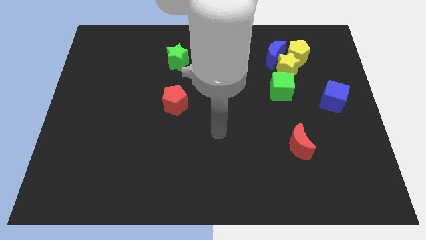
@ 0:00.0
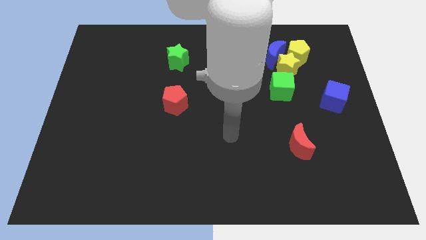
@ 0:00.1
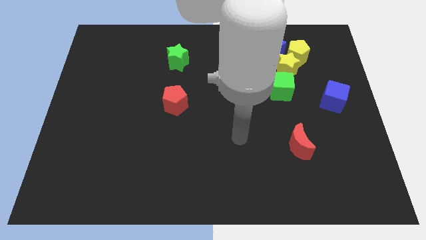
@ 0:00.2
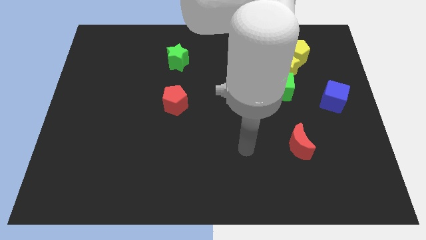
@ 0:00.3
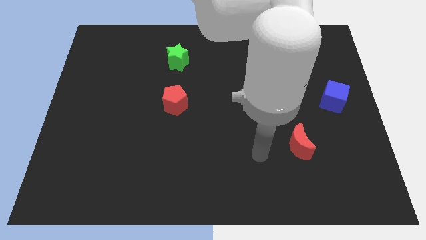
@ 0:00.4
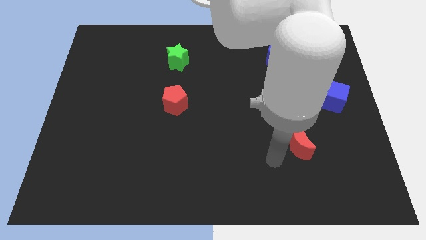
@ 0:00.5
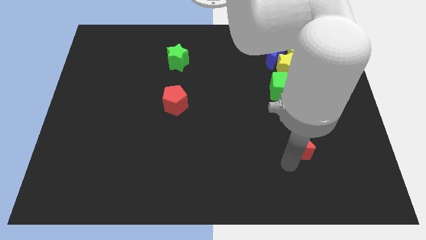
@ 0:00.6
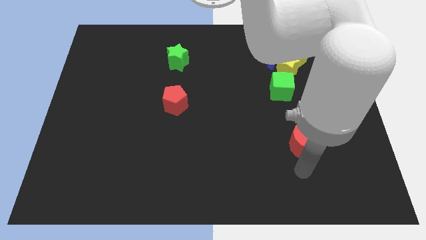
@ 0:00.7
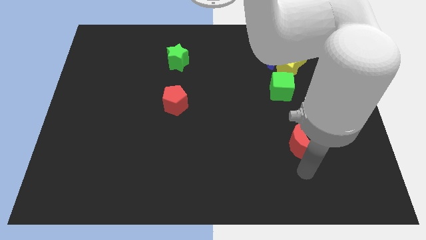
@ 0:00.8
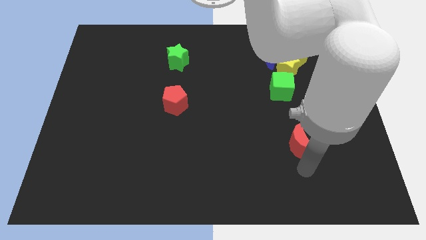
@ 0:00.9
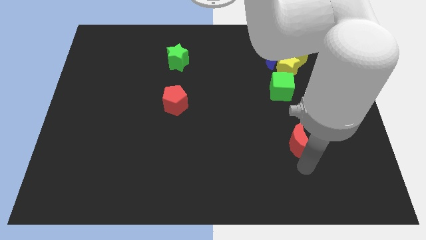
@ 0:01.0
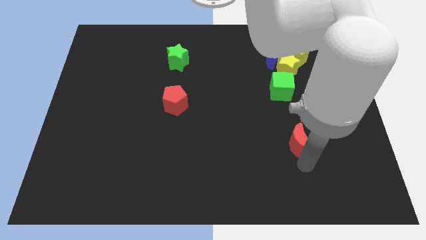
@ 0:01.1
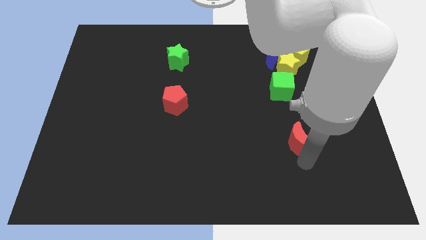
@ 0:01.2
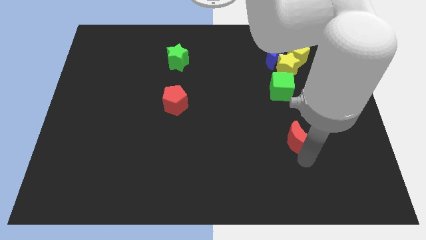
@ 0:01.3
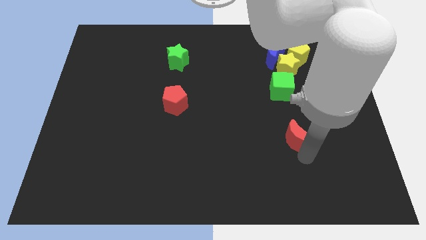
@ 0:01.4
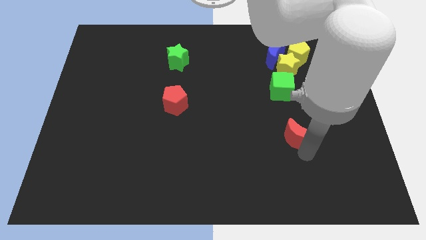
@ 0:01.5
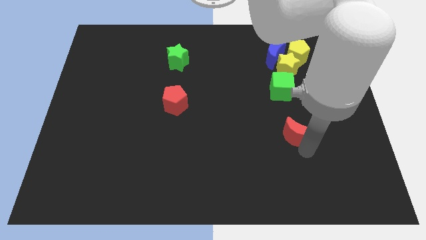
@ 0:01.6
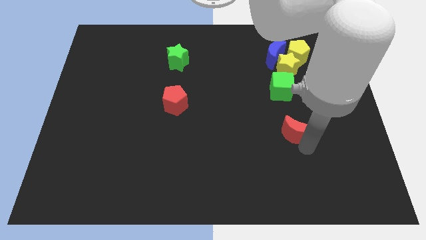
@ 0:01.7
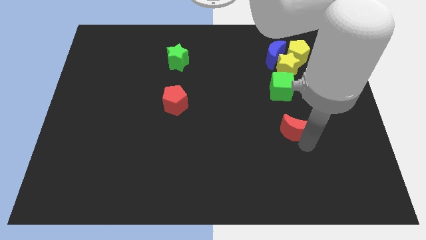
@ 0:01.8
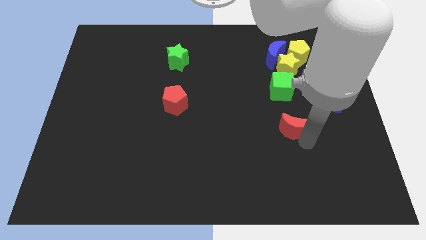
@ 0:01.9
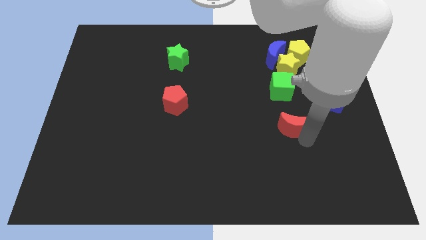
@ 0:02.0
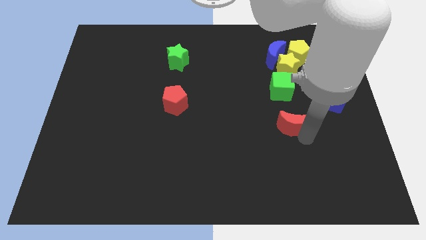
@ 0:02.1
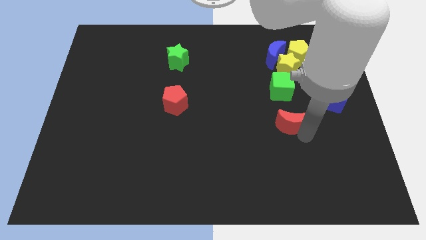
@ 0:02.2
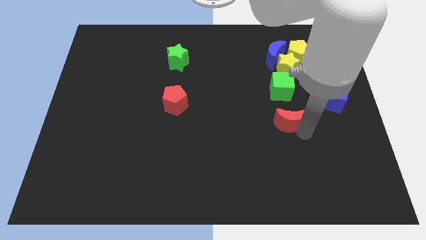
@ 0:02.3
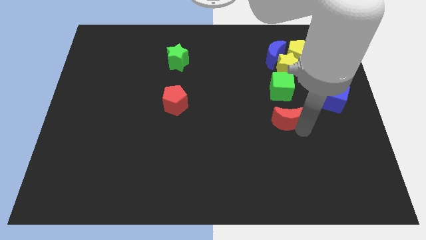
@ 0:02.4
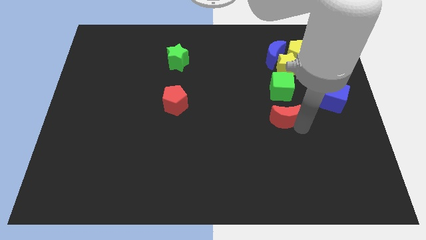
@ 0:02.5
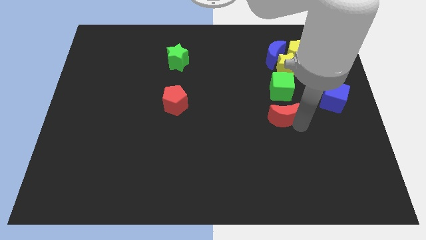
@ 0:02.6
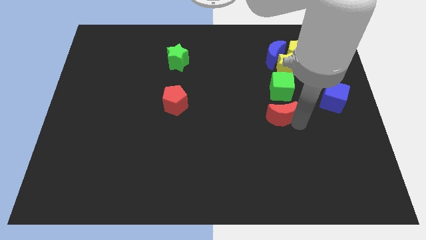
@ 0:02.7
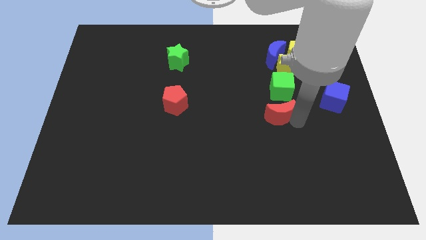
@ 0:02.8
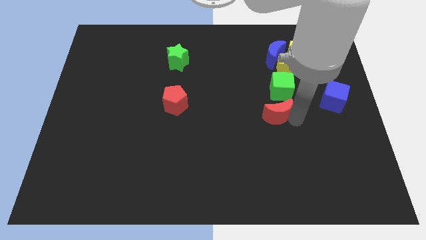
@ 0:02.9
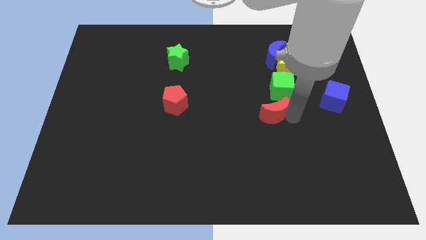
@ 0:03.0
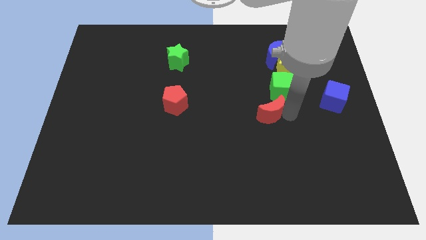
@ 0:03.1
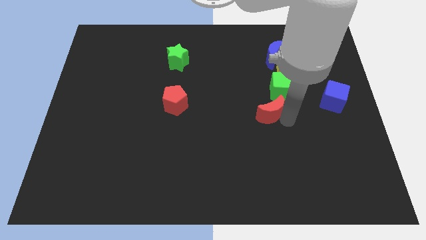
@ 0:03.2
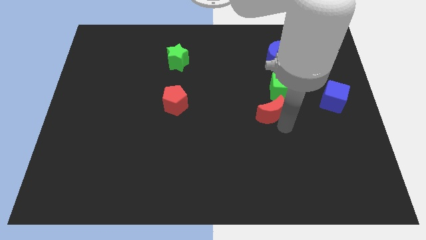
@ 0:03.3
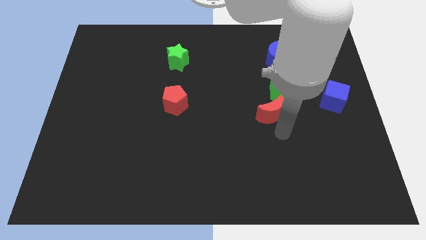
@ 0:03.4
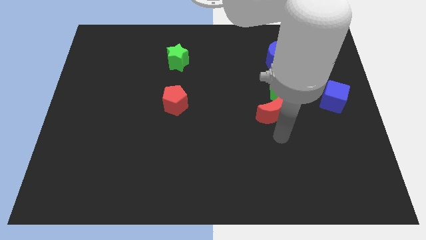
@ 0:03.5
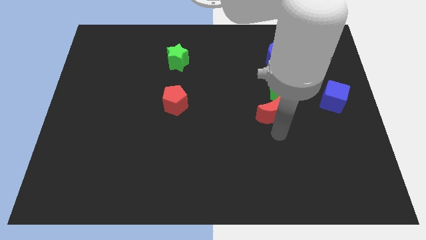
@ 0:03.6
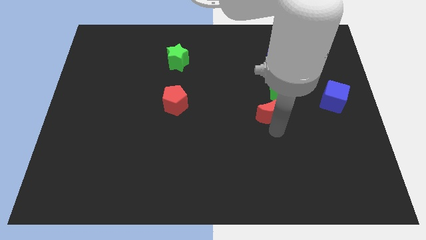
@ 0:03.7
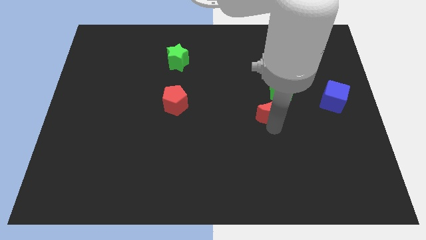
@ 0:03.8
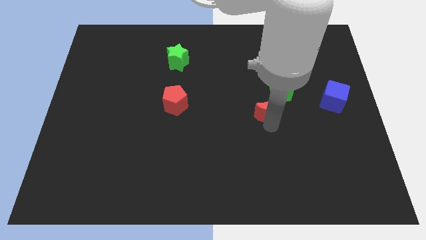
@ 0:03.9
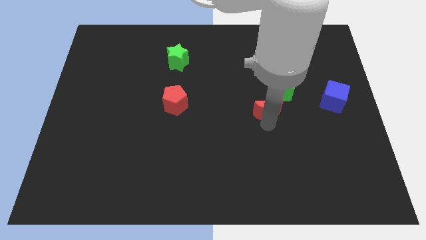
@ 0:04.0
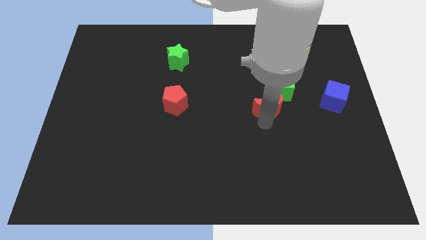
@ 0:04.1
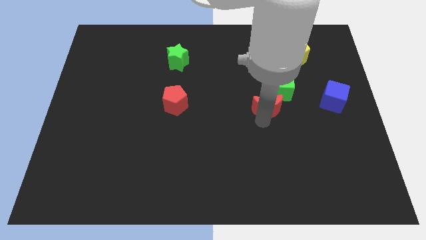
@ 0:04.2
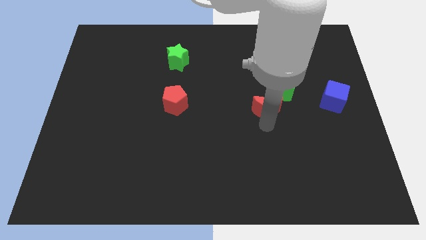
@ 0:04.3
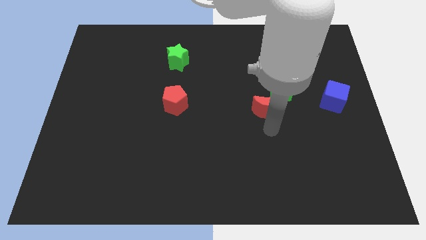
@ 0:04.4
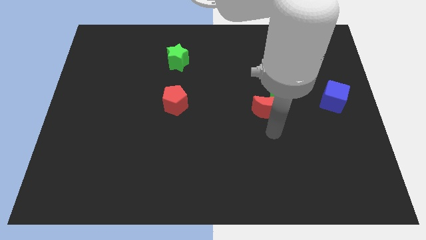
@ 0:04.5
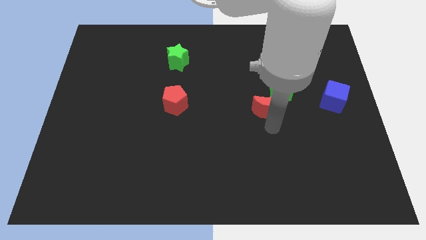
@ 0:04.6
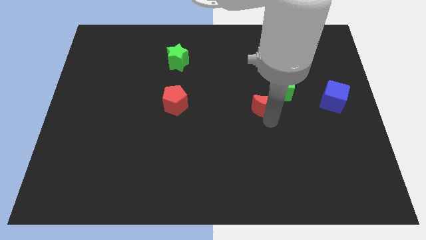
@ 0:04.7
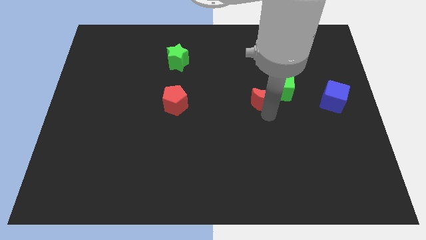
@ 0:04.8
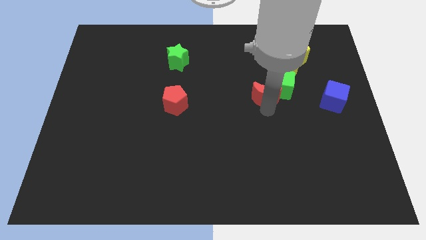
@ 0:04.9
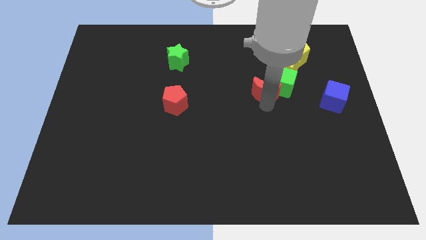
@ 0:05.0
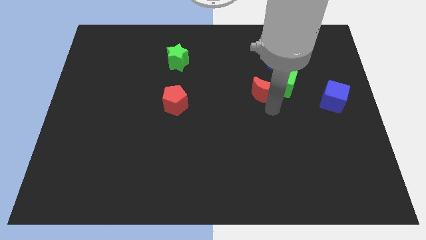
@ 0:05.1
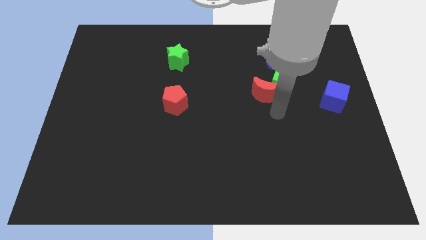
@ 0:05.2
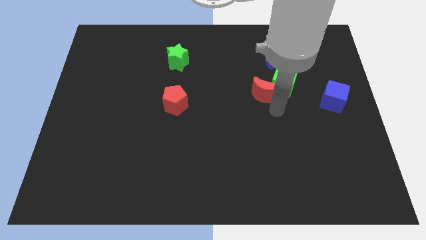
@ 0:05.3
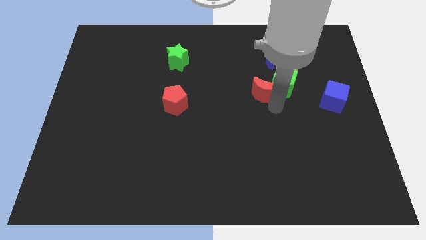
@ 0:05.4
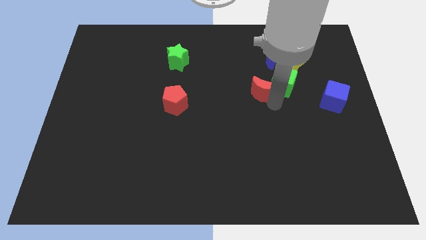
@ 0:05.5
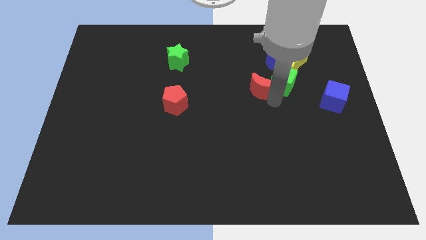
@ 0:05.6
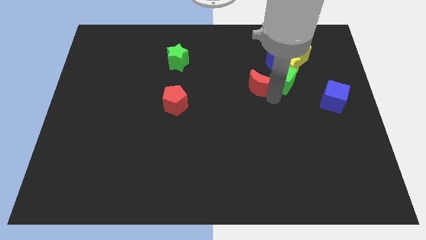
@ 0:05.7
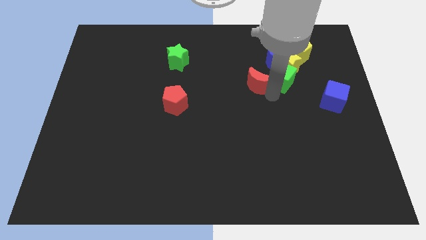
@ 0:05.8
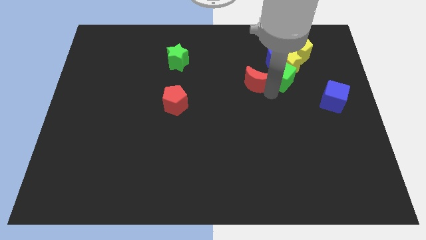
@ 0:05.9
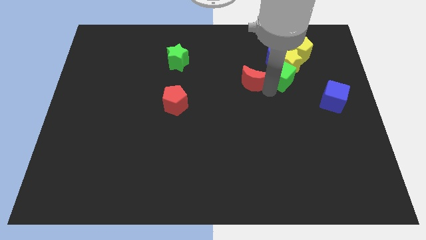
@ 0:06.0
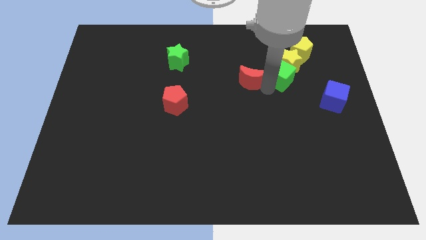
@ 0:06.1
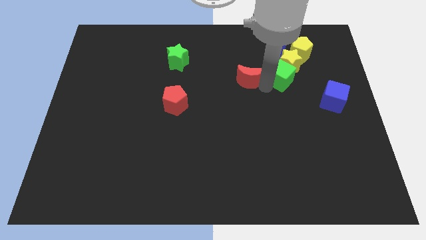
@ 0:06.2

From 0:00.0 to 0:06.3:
put the red moon just left of the yellow star

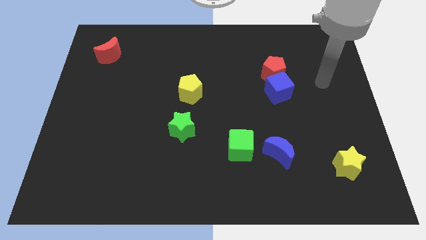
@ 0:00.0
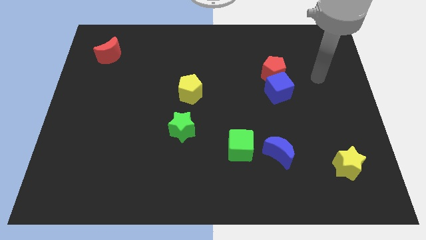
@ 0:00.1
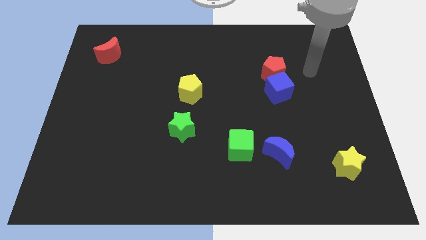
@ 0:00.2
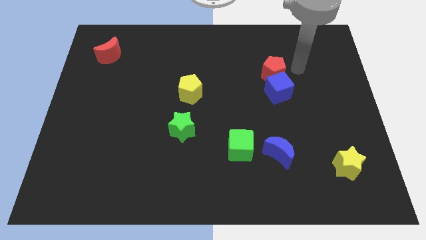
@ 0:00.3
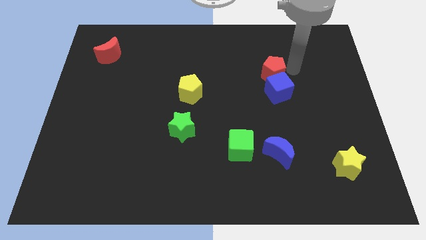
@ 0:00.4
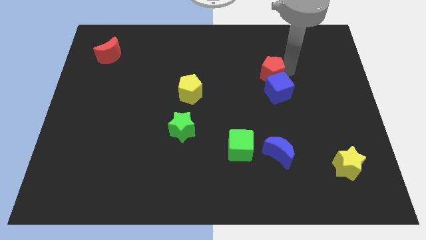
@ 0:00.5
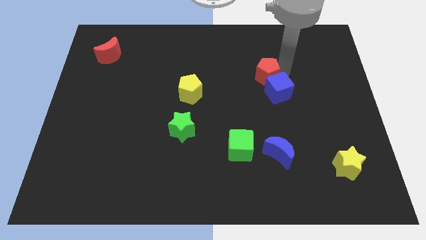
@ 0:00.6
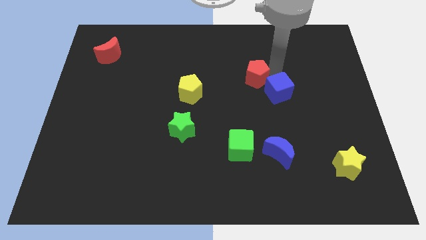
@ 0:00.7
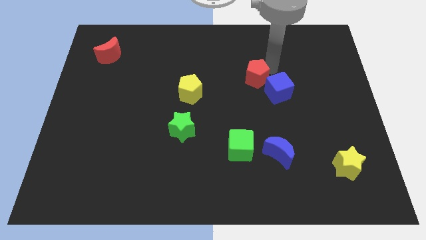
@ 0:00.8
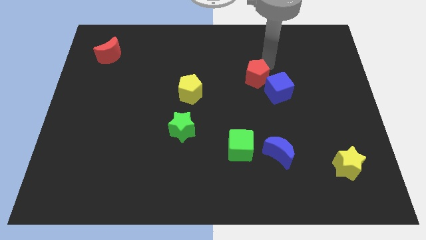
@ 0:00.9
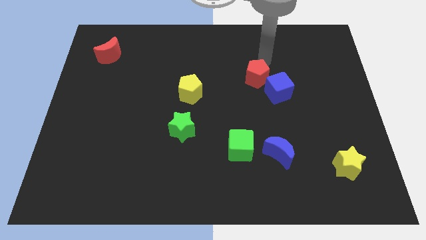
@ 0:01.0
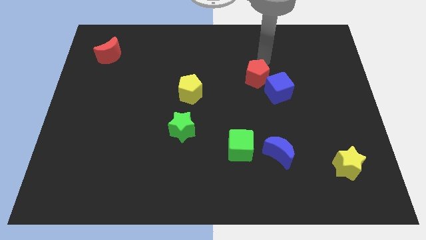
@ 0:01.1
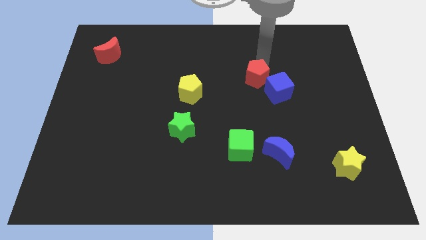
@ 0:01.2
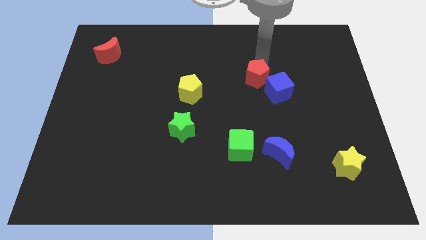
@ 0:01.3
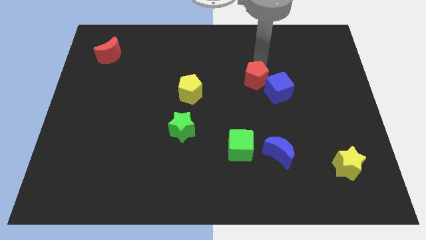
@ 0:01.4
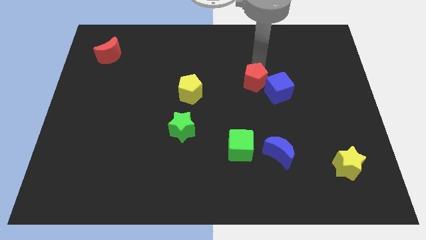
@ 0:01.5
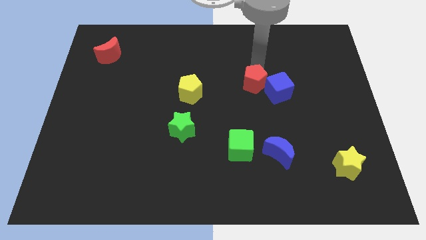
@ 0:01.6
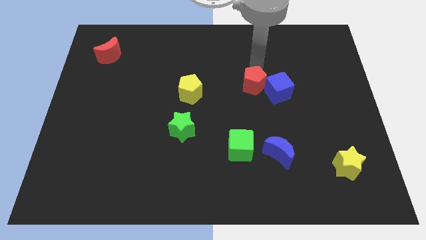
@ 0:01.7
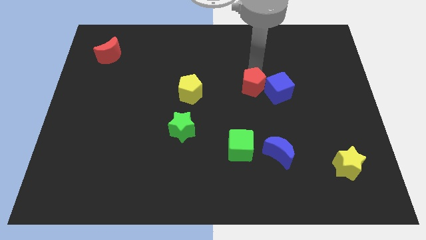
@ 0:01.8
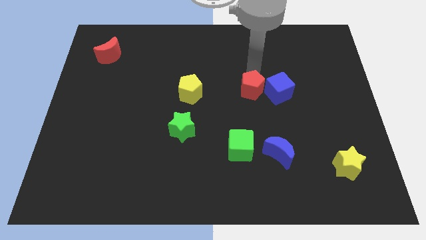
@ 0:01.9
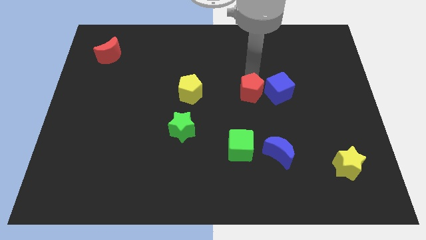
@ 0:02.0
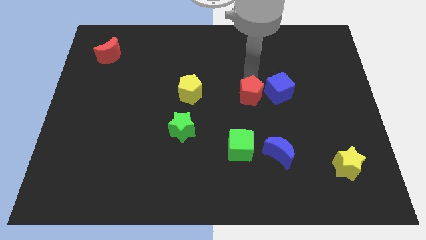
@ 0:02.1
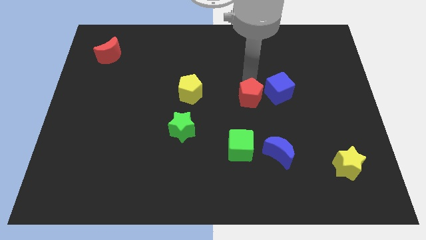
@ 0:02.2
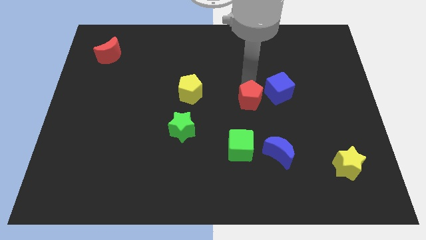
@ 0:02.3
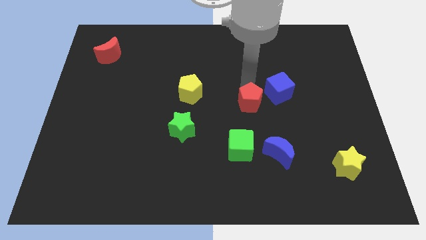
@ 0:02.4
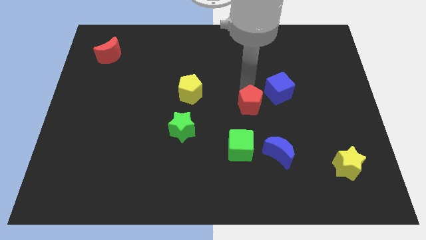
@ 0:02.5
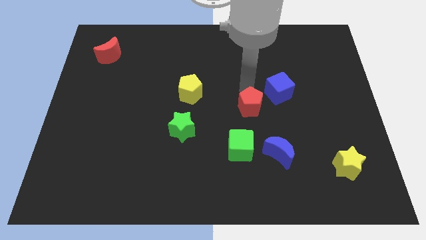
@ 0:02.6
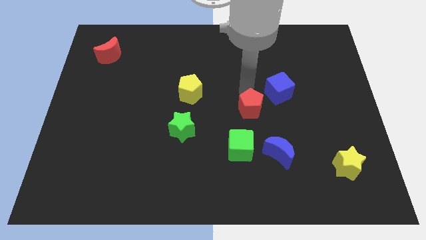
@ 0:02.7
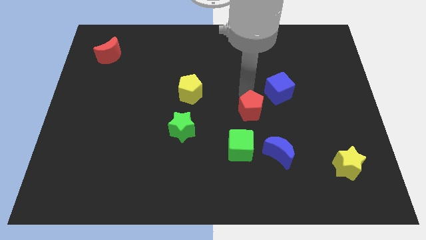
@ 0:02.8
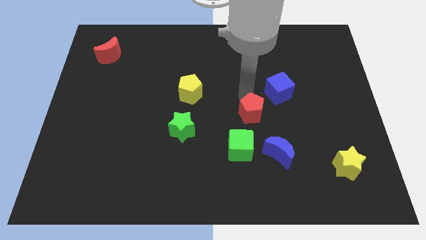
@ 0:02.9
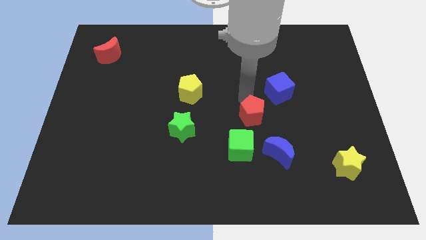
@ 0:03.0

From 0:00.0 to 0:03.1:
move the red pentagon to the top left side of the blue moon
